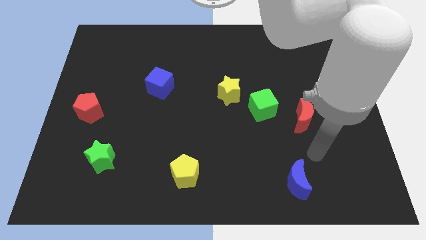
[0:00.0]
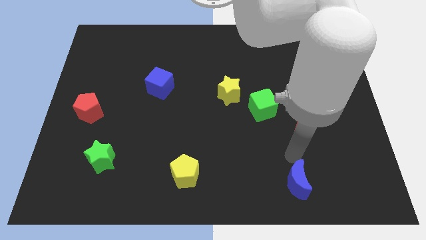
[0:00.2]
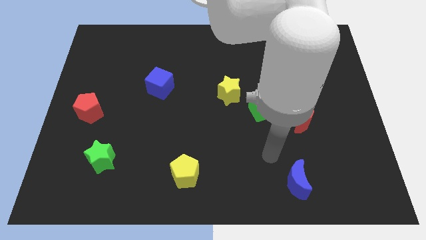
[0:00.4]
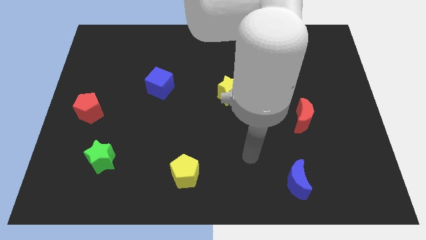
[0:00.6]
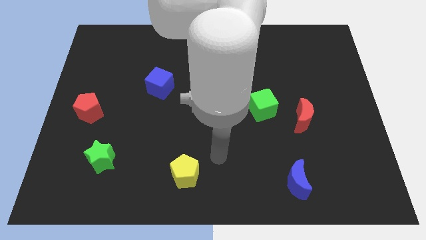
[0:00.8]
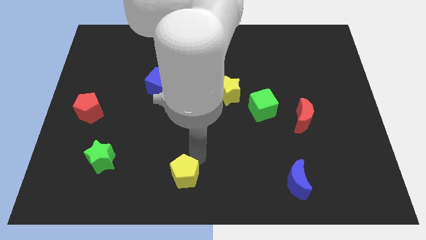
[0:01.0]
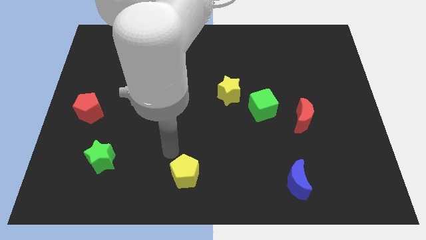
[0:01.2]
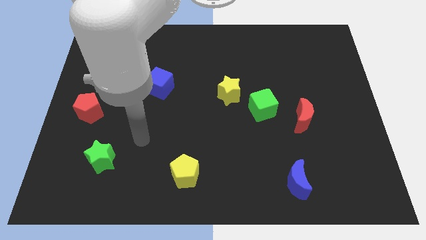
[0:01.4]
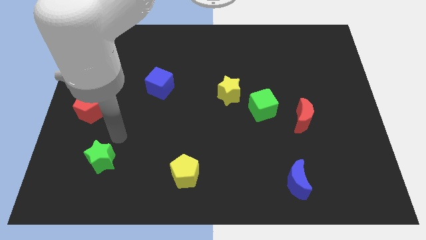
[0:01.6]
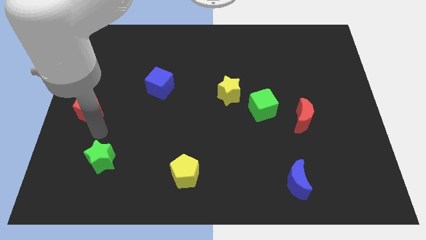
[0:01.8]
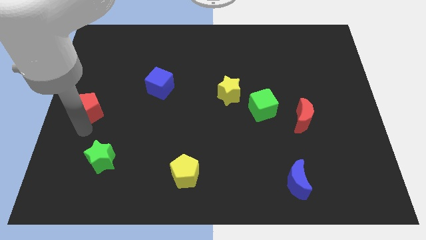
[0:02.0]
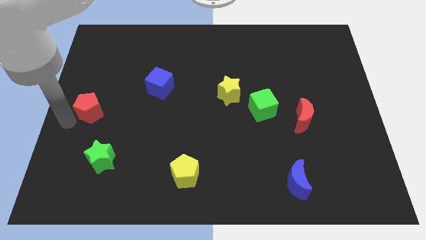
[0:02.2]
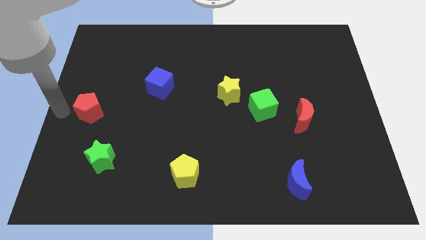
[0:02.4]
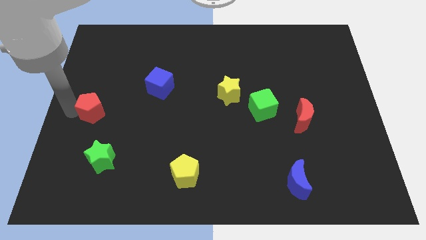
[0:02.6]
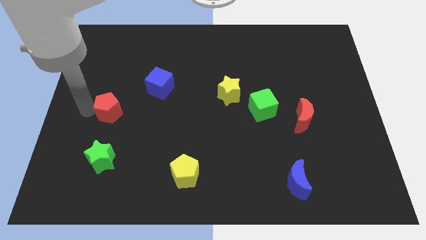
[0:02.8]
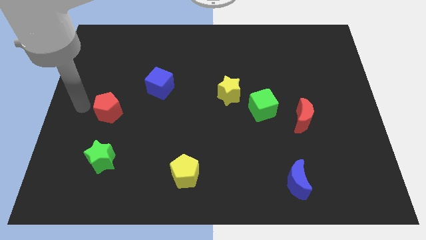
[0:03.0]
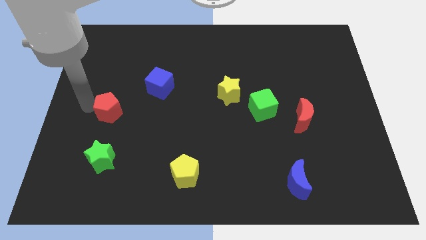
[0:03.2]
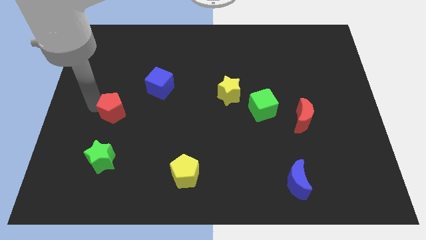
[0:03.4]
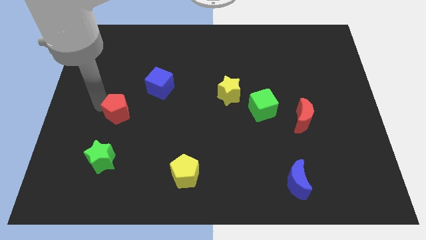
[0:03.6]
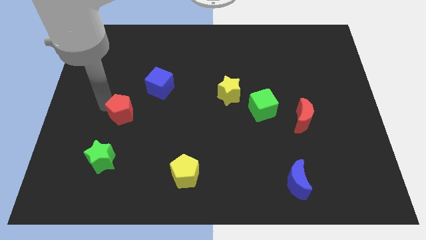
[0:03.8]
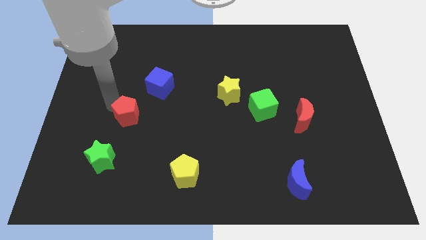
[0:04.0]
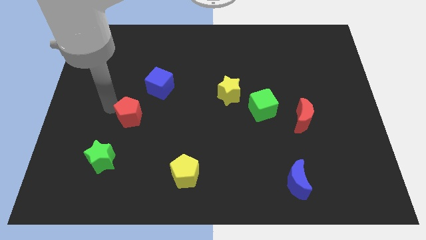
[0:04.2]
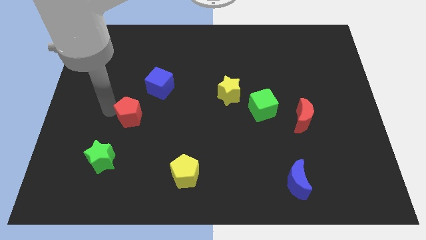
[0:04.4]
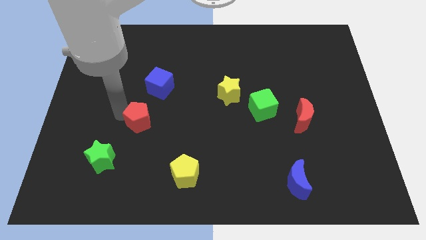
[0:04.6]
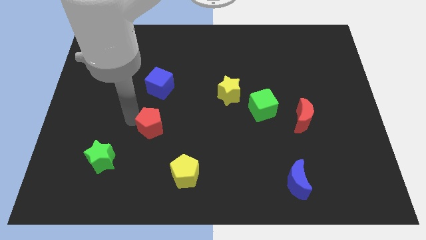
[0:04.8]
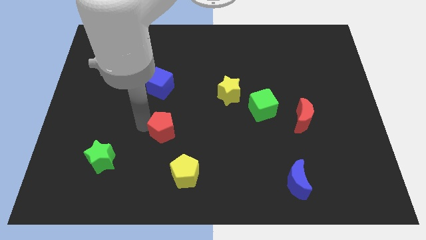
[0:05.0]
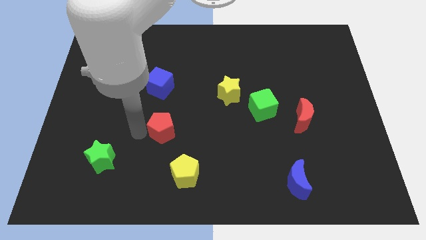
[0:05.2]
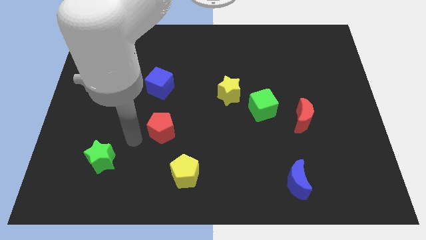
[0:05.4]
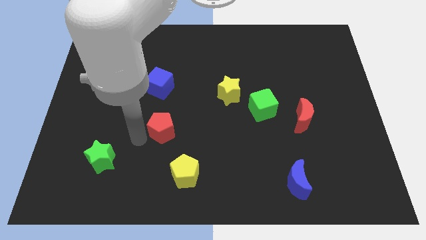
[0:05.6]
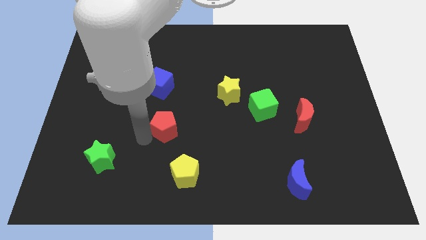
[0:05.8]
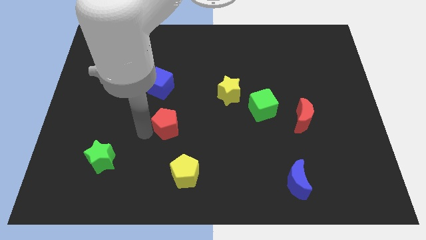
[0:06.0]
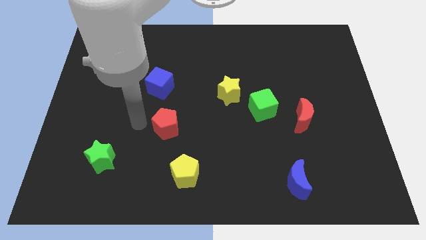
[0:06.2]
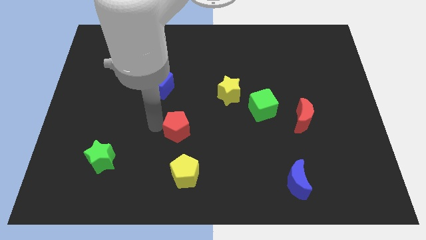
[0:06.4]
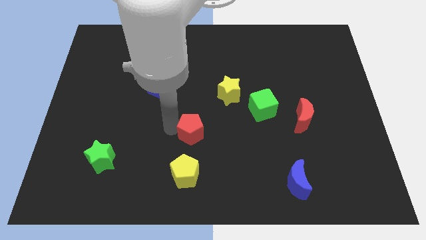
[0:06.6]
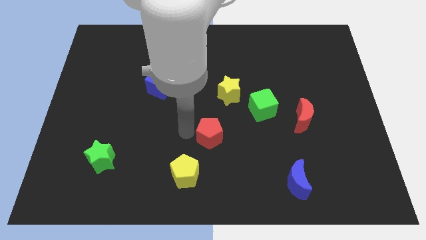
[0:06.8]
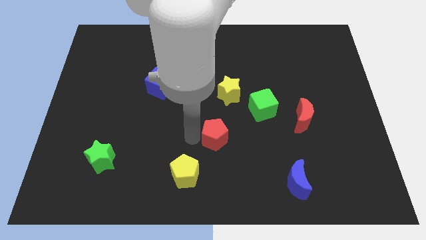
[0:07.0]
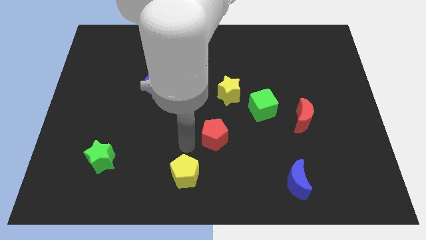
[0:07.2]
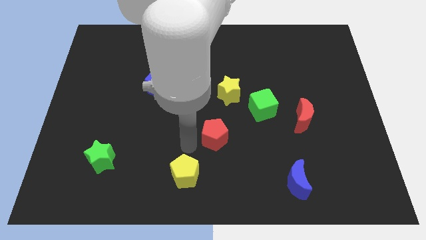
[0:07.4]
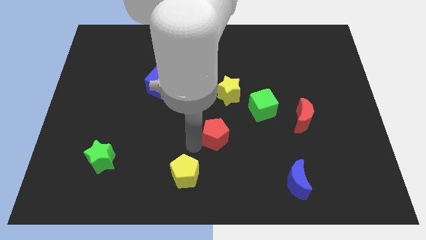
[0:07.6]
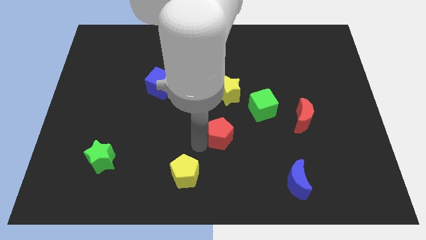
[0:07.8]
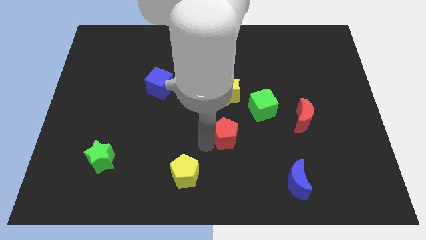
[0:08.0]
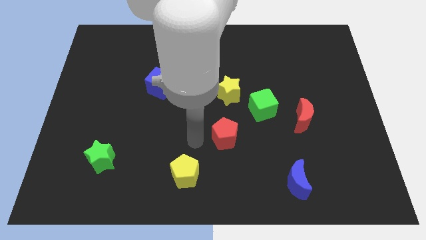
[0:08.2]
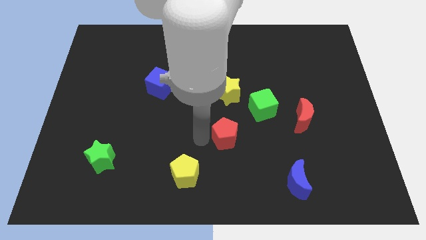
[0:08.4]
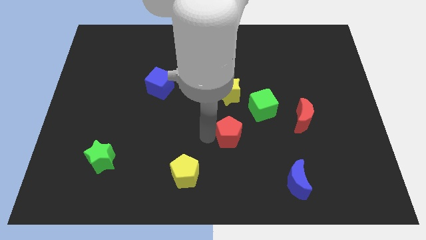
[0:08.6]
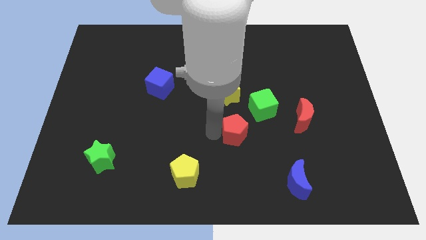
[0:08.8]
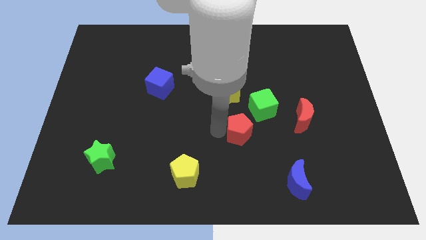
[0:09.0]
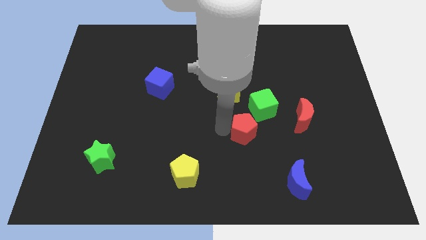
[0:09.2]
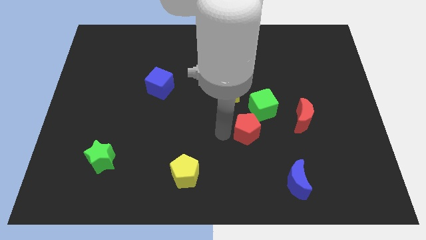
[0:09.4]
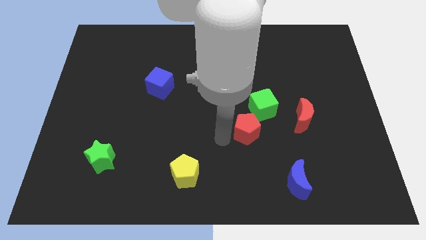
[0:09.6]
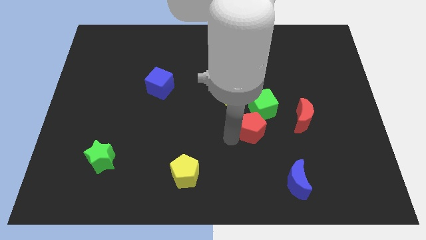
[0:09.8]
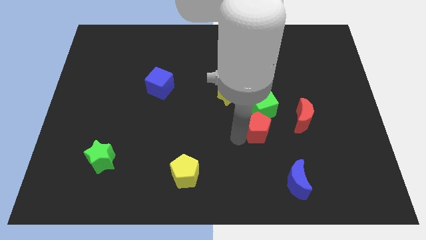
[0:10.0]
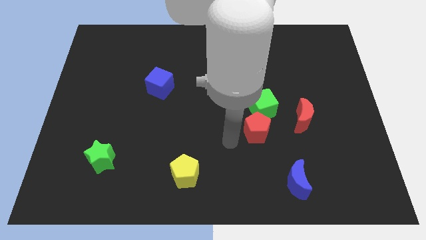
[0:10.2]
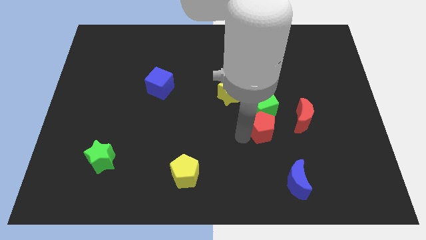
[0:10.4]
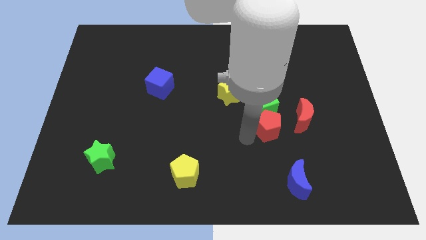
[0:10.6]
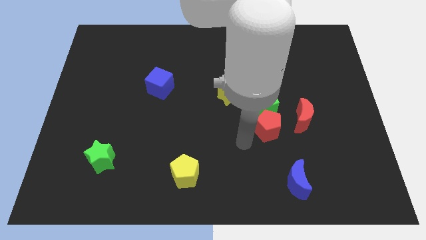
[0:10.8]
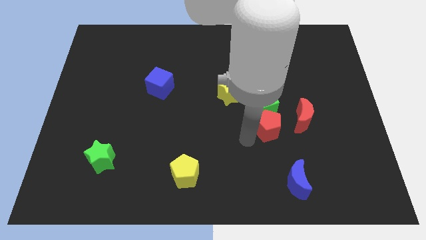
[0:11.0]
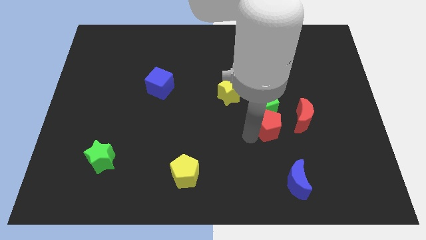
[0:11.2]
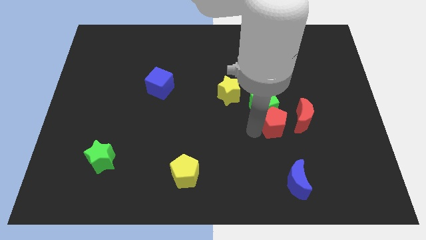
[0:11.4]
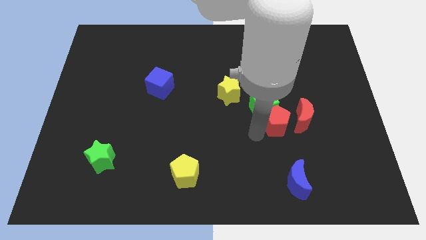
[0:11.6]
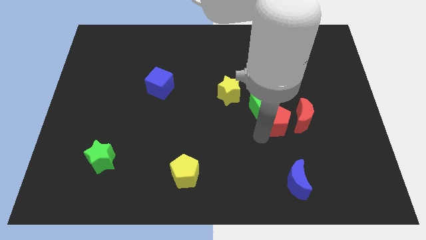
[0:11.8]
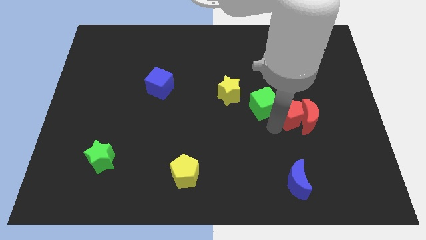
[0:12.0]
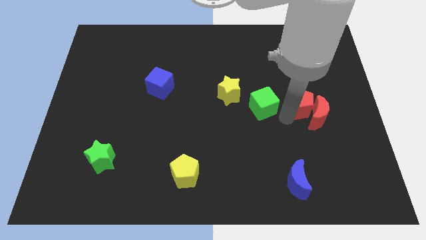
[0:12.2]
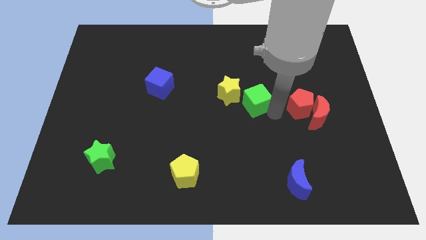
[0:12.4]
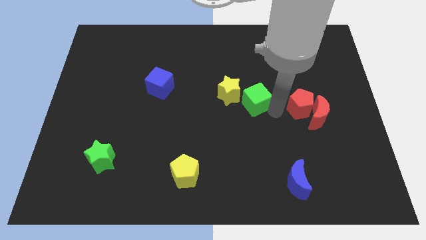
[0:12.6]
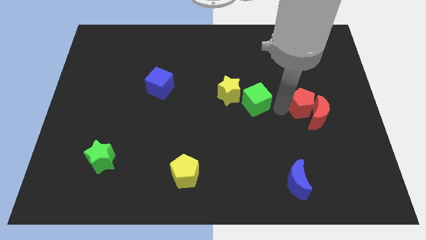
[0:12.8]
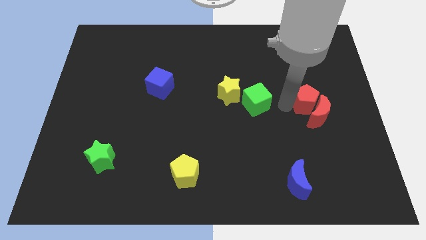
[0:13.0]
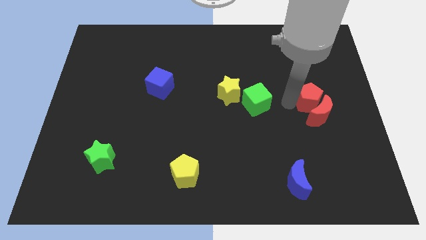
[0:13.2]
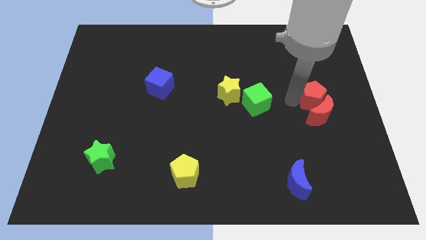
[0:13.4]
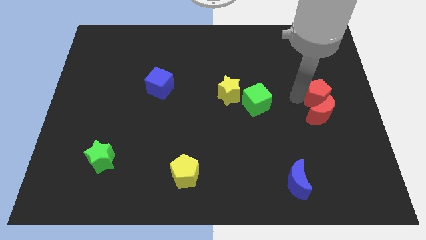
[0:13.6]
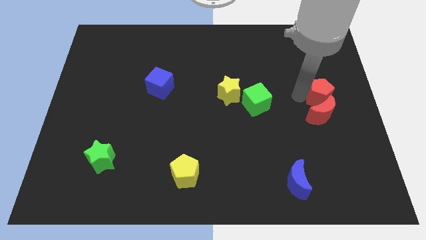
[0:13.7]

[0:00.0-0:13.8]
put the red pentagon to the right side of the board
